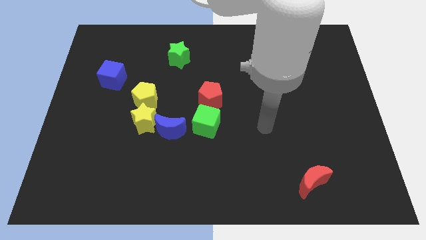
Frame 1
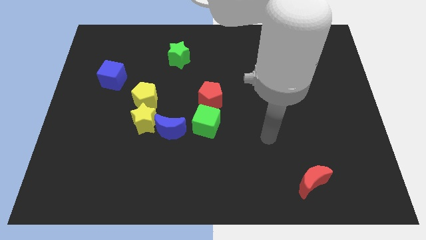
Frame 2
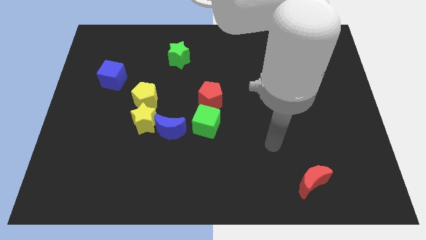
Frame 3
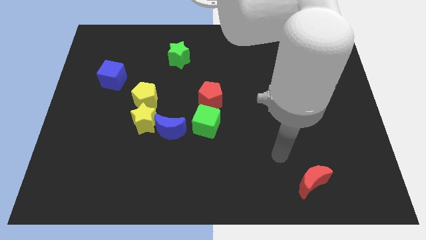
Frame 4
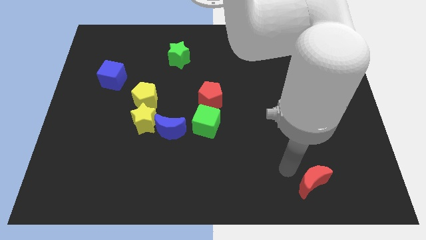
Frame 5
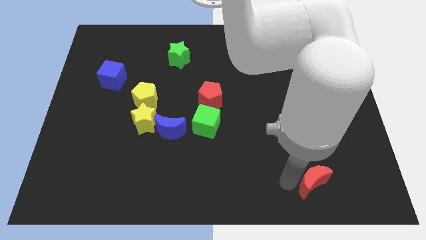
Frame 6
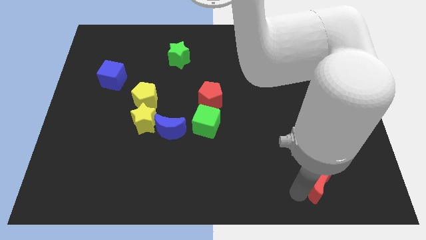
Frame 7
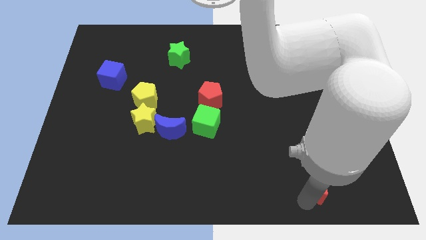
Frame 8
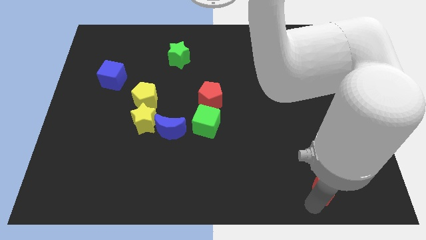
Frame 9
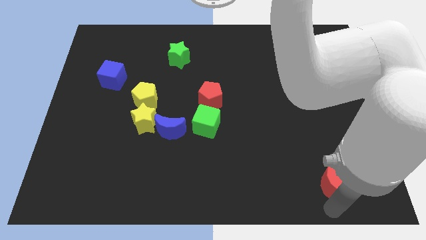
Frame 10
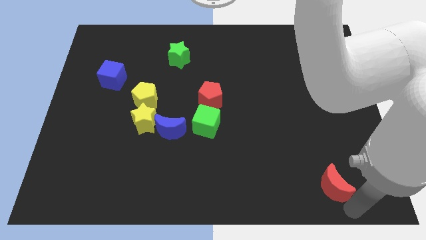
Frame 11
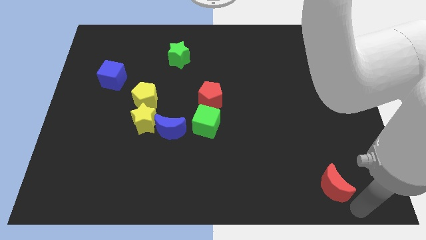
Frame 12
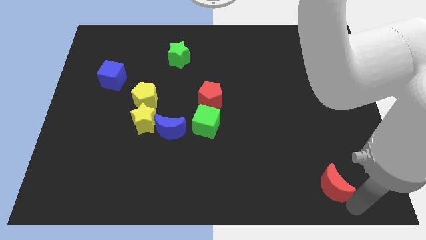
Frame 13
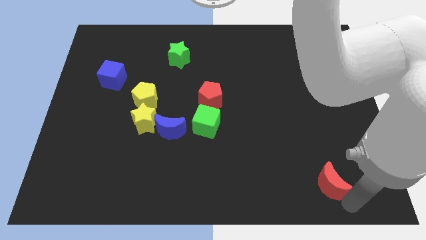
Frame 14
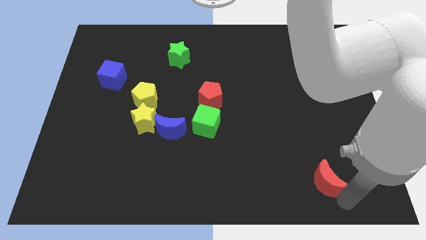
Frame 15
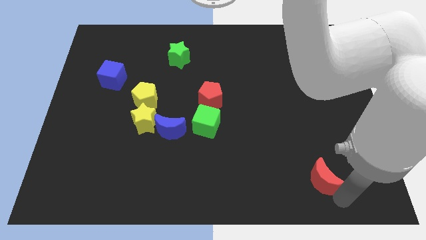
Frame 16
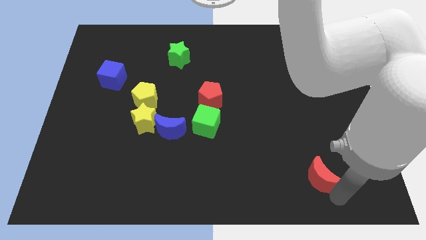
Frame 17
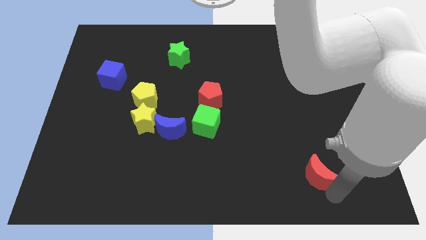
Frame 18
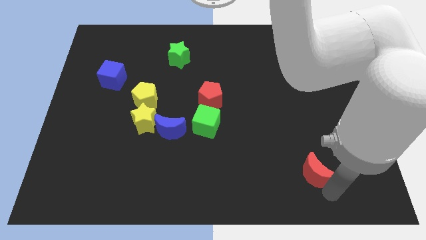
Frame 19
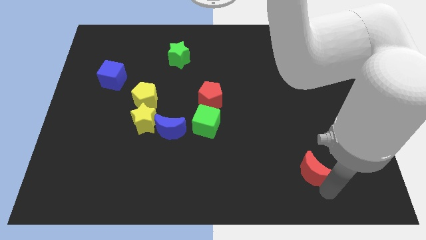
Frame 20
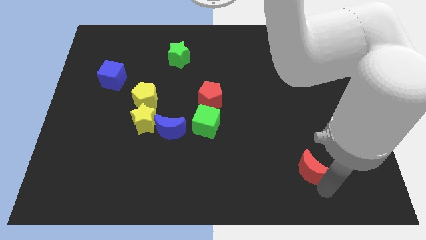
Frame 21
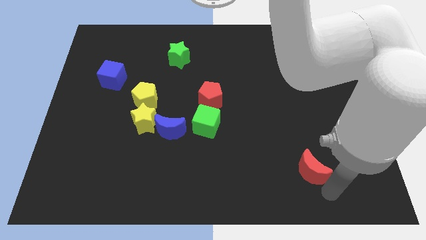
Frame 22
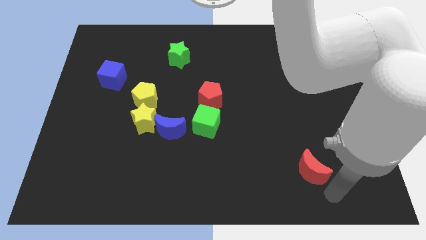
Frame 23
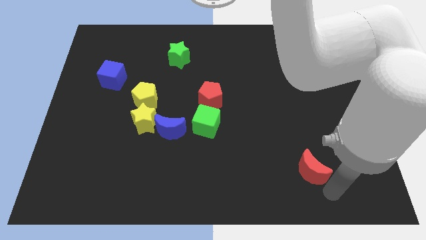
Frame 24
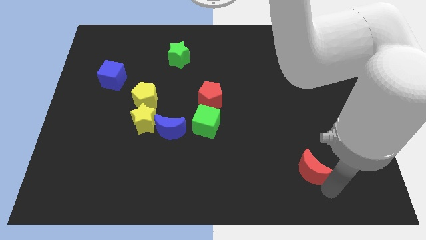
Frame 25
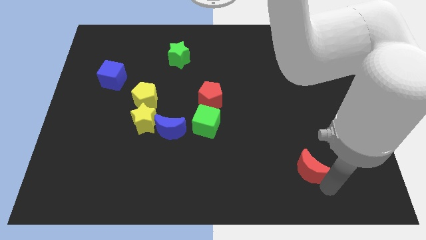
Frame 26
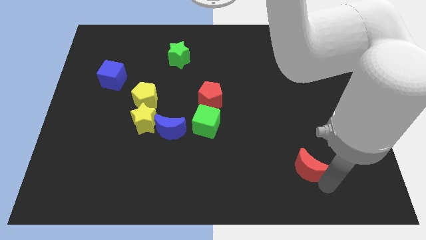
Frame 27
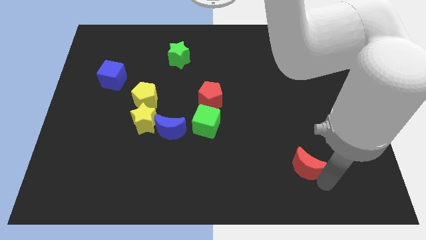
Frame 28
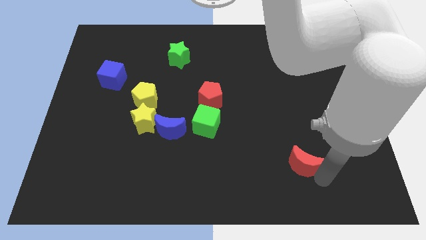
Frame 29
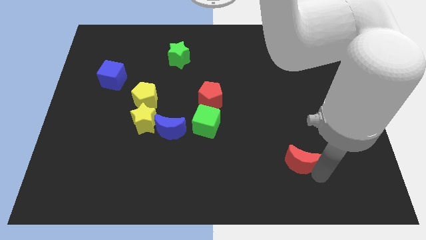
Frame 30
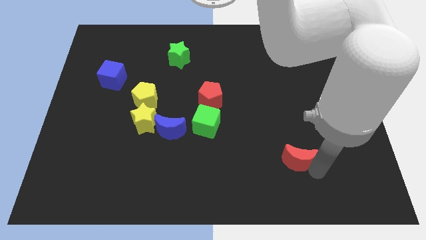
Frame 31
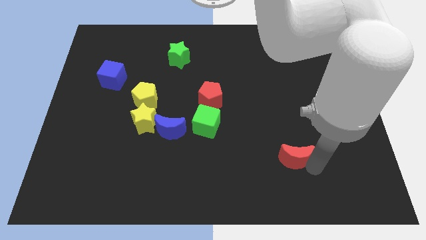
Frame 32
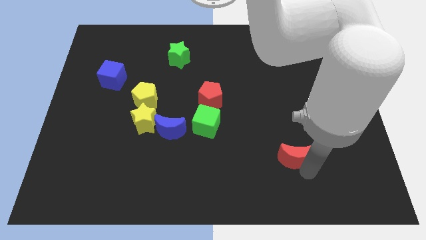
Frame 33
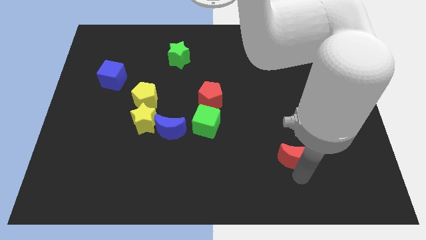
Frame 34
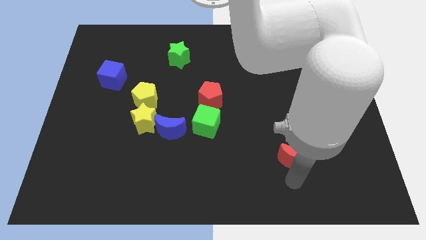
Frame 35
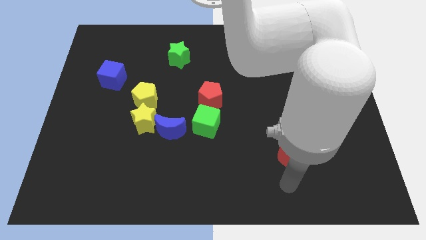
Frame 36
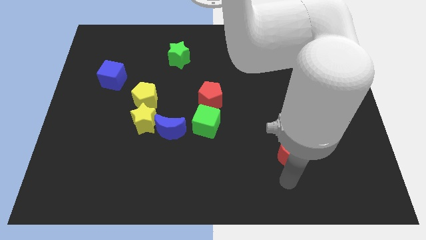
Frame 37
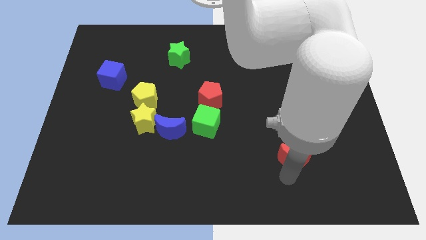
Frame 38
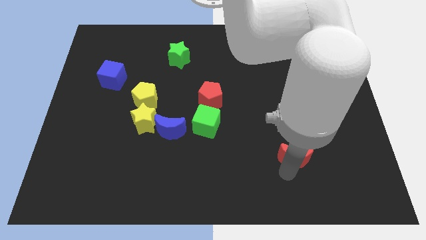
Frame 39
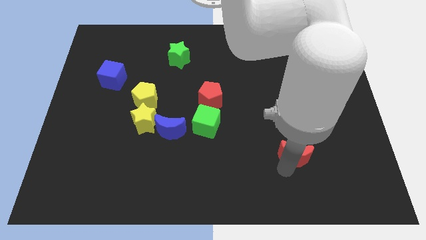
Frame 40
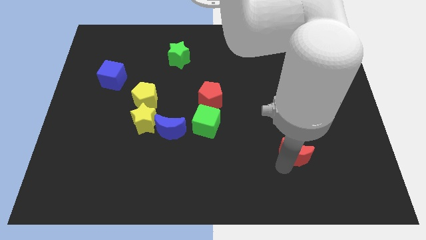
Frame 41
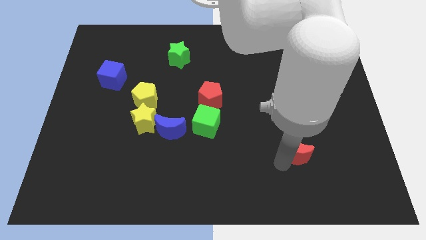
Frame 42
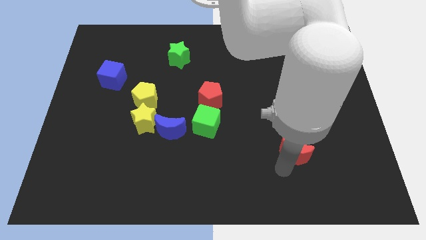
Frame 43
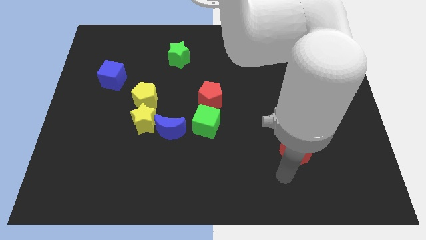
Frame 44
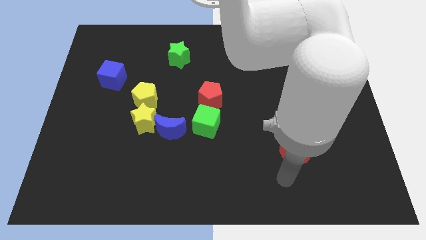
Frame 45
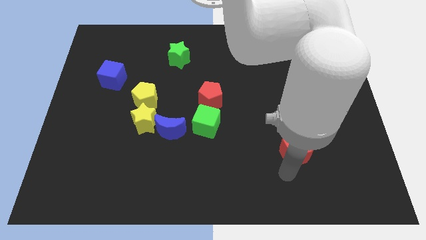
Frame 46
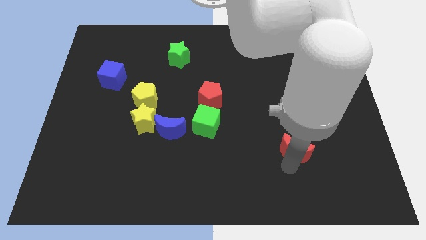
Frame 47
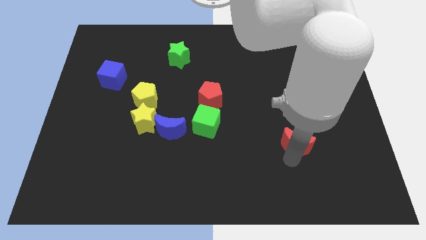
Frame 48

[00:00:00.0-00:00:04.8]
slide the red moon a little up

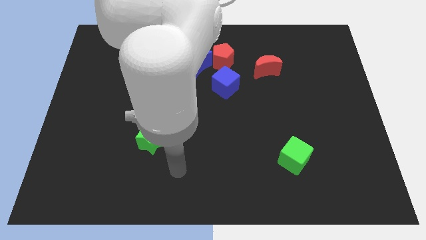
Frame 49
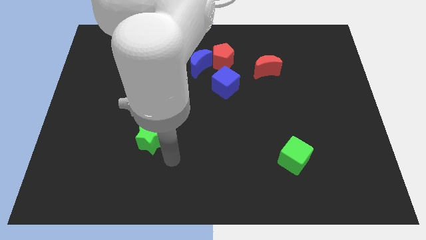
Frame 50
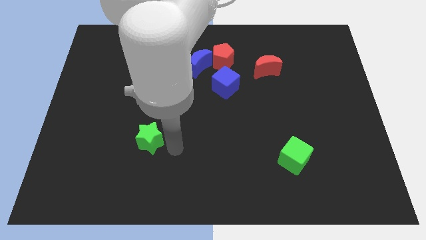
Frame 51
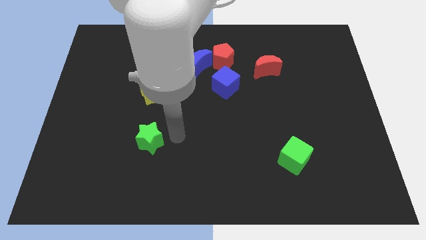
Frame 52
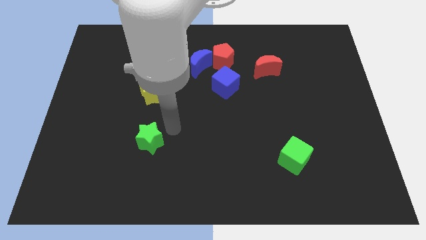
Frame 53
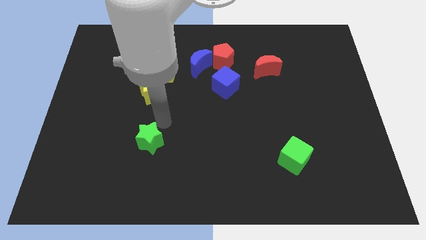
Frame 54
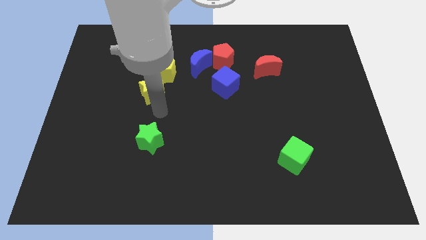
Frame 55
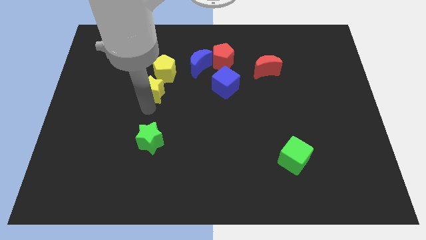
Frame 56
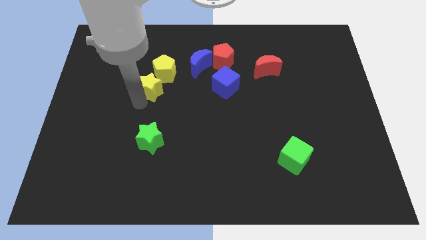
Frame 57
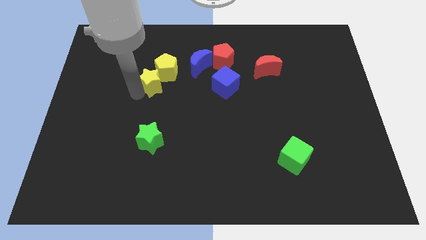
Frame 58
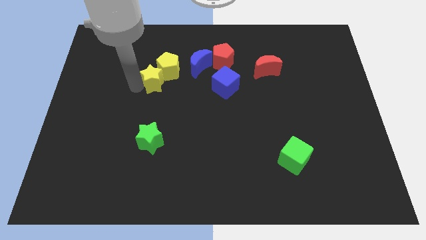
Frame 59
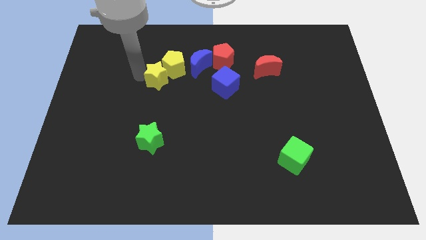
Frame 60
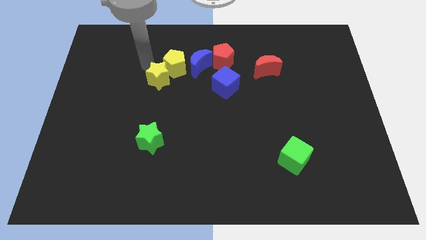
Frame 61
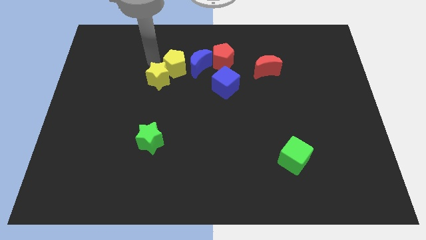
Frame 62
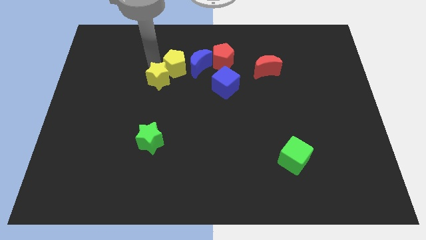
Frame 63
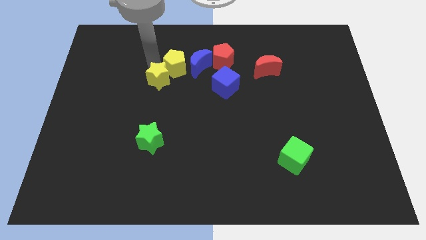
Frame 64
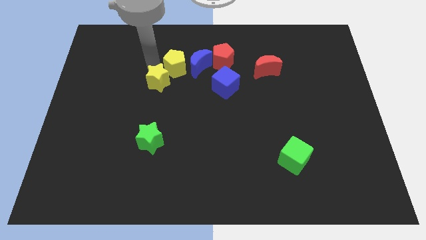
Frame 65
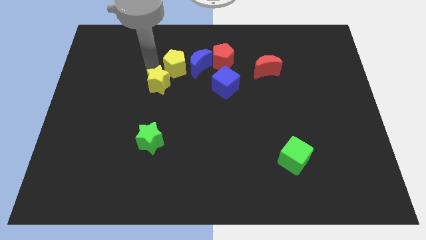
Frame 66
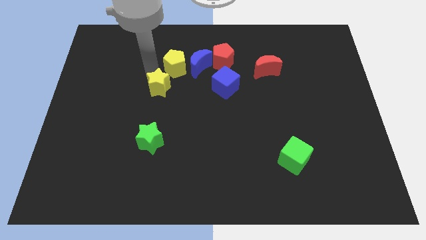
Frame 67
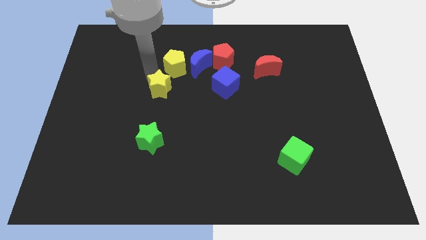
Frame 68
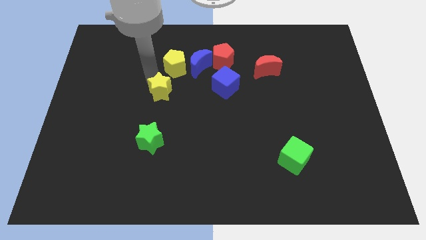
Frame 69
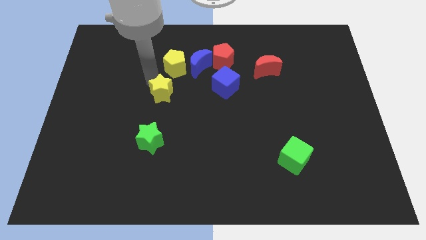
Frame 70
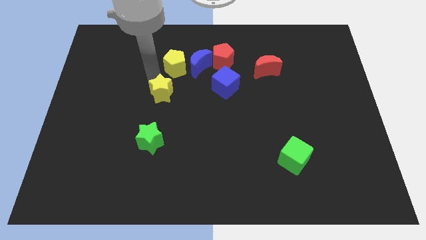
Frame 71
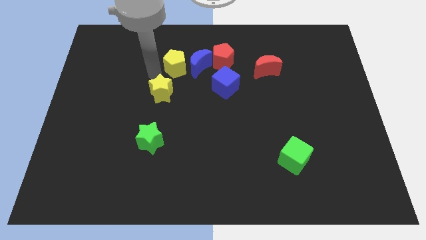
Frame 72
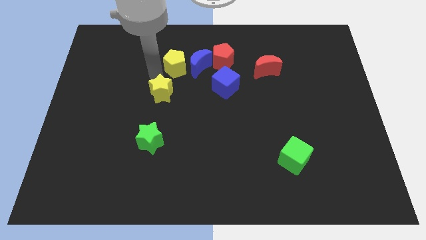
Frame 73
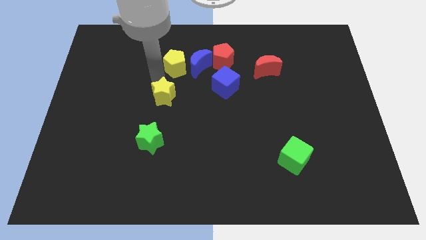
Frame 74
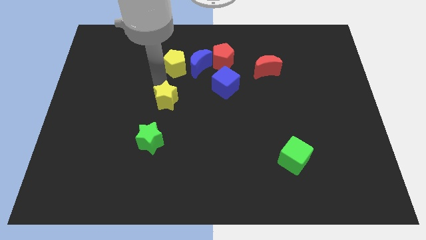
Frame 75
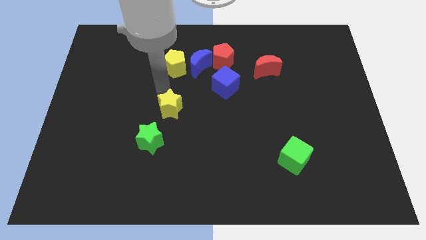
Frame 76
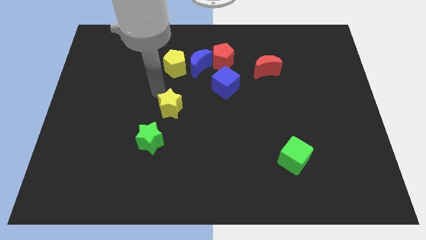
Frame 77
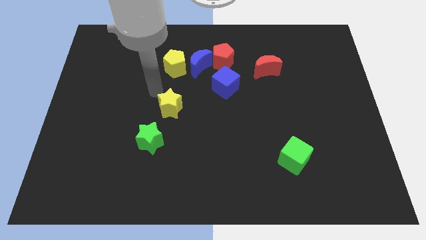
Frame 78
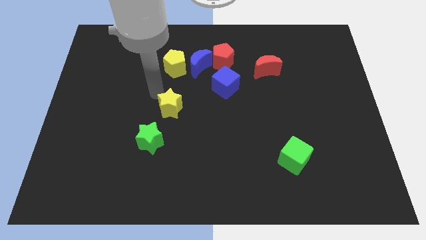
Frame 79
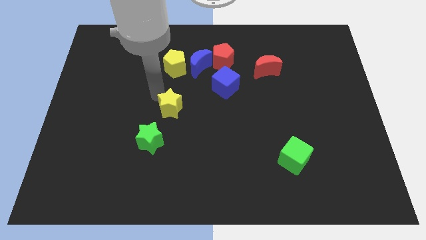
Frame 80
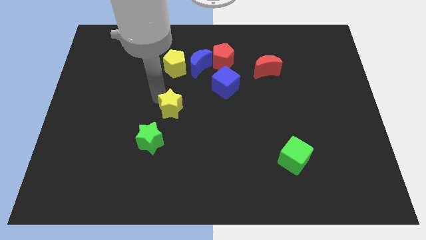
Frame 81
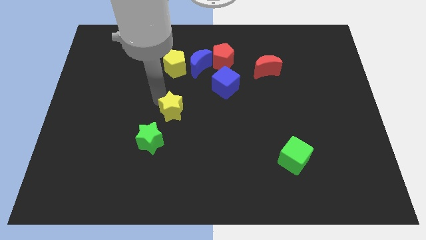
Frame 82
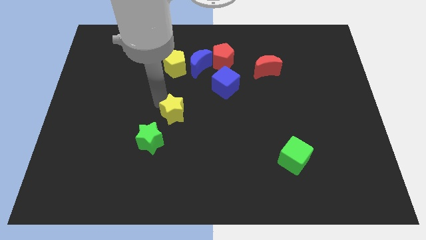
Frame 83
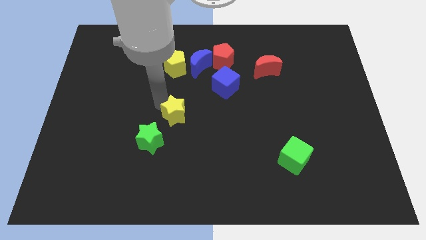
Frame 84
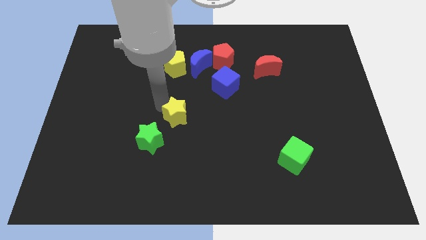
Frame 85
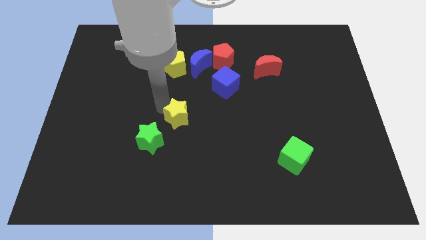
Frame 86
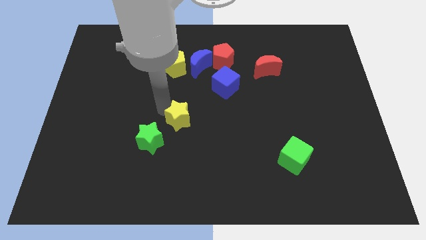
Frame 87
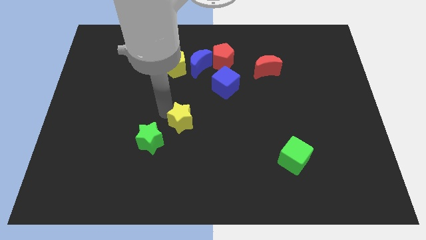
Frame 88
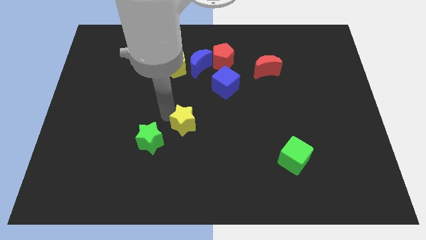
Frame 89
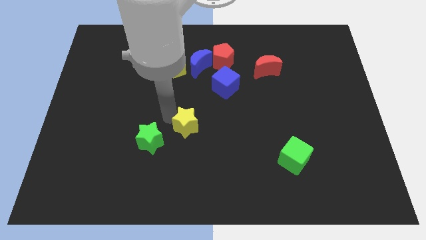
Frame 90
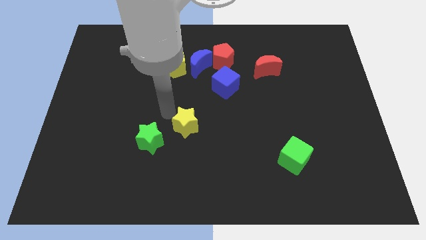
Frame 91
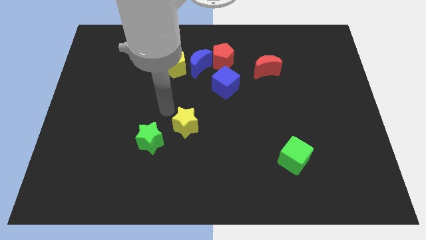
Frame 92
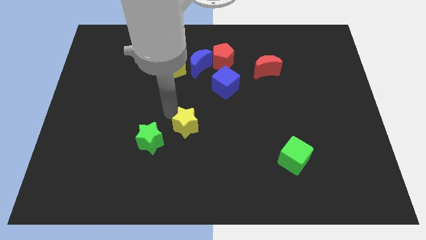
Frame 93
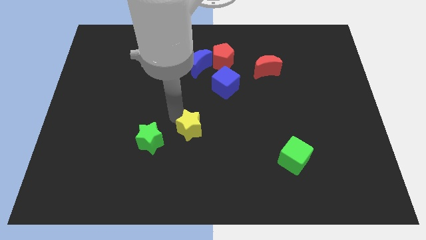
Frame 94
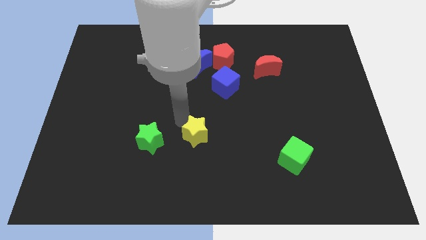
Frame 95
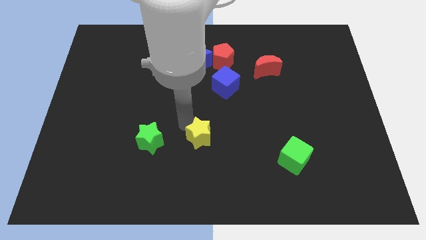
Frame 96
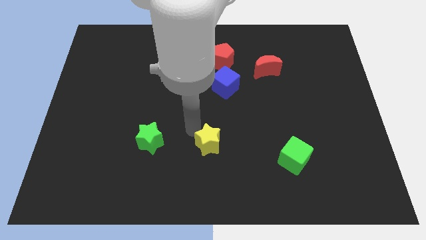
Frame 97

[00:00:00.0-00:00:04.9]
push the yellow star downwards and then right
